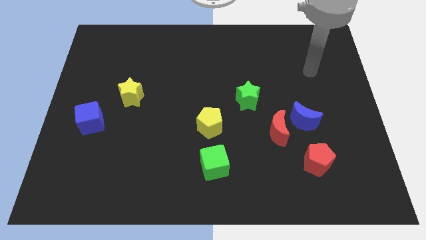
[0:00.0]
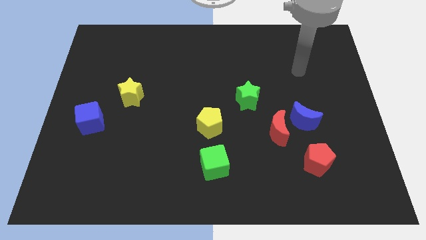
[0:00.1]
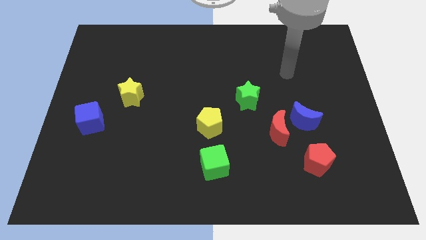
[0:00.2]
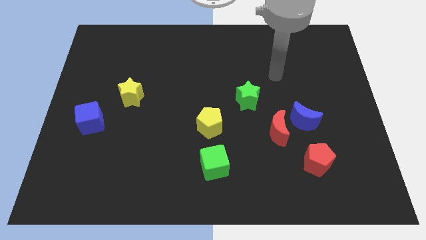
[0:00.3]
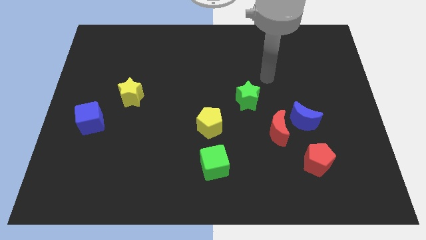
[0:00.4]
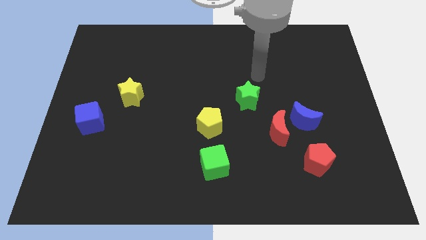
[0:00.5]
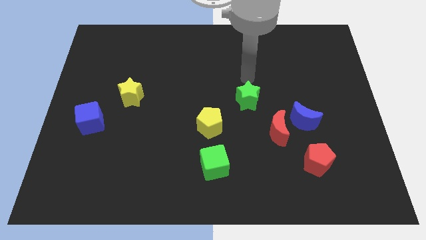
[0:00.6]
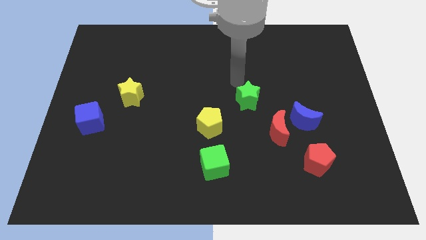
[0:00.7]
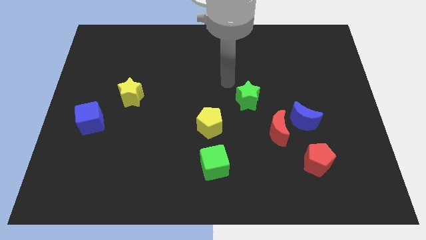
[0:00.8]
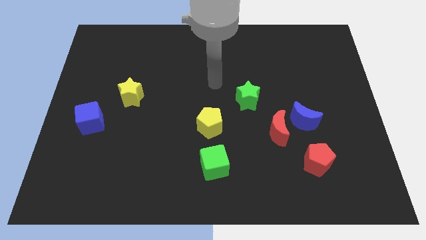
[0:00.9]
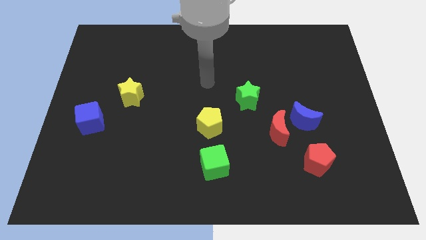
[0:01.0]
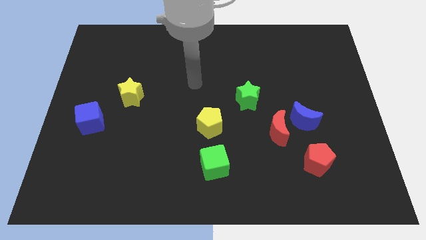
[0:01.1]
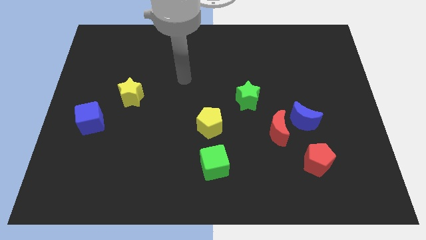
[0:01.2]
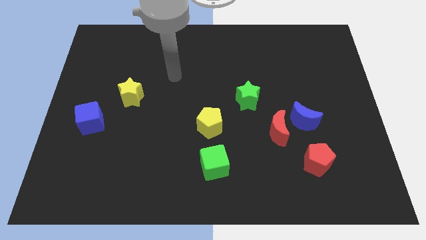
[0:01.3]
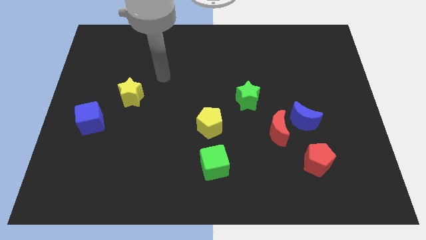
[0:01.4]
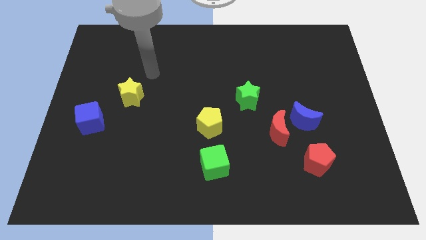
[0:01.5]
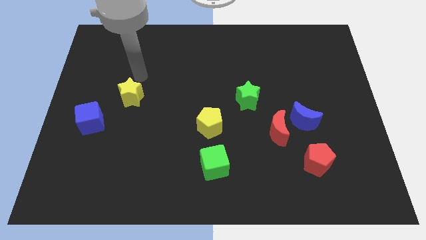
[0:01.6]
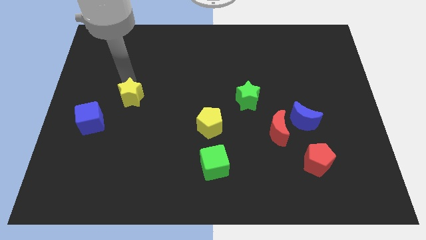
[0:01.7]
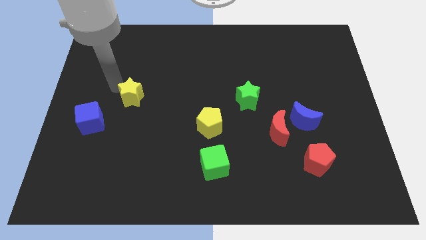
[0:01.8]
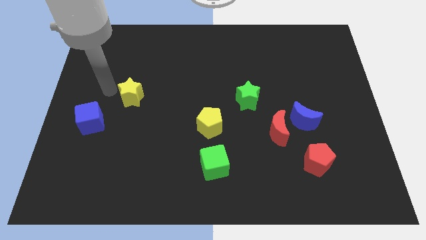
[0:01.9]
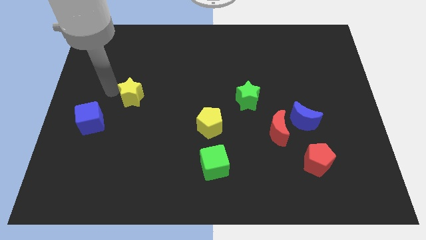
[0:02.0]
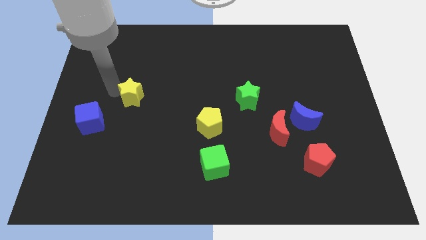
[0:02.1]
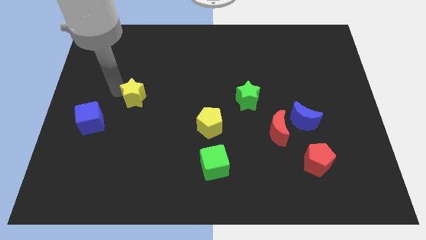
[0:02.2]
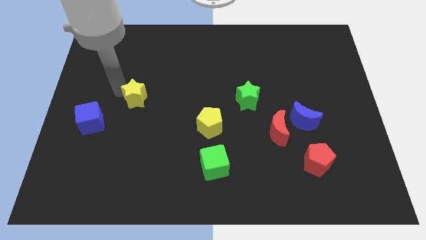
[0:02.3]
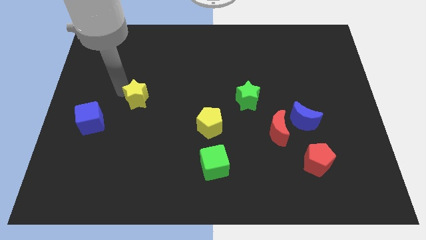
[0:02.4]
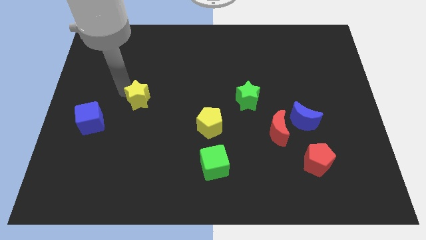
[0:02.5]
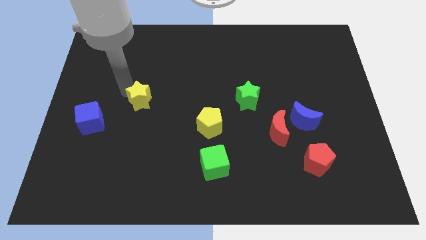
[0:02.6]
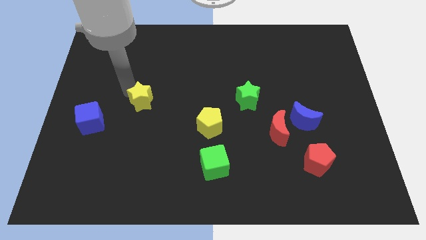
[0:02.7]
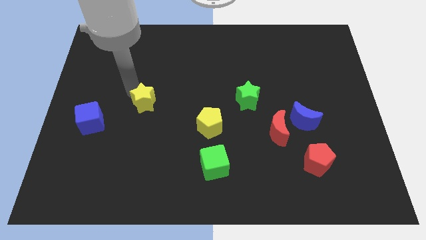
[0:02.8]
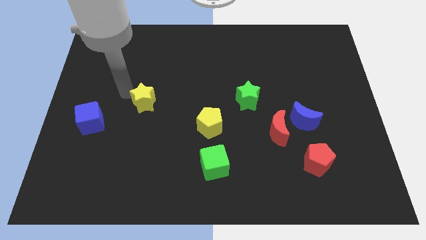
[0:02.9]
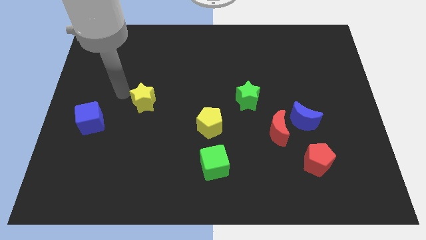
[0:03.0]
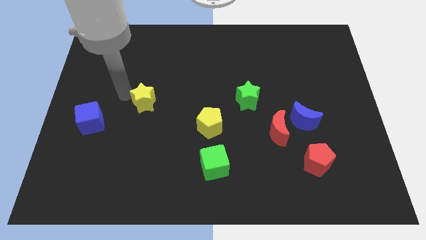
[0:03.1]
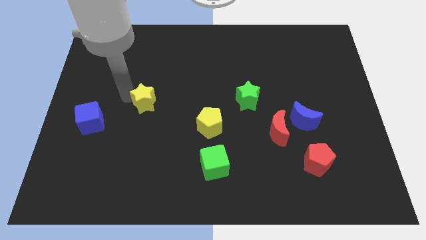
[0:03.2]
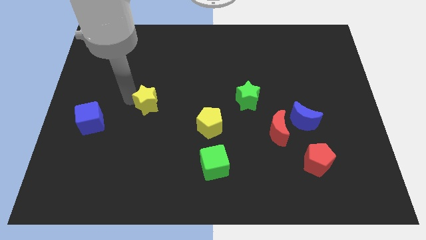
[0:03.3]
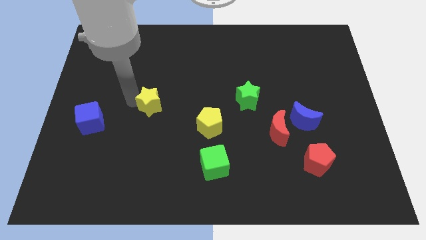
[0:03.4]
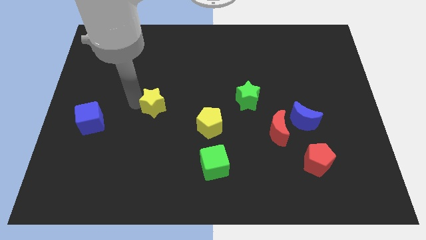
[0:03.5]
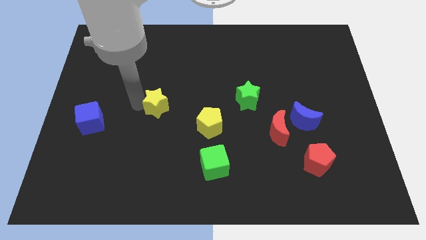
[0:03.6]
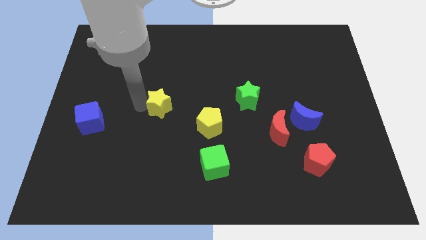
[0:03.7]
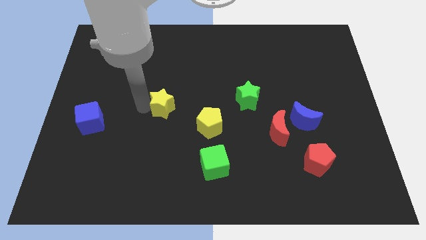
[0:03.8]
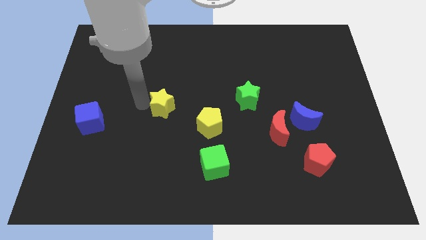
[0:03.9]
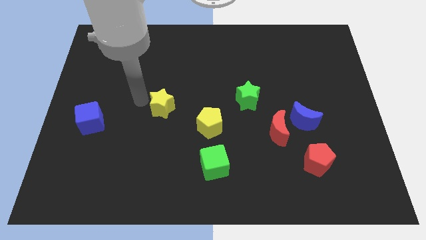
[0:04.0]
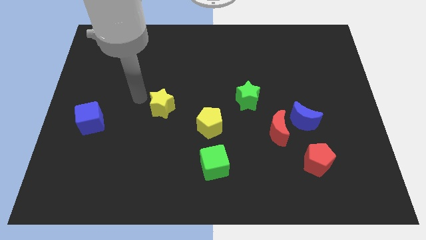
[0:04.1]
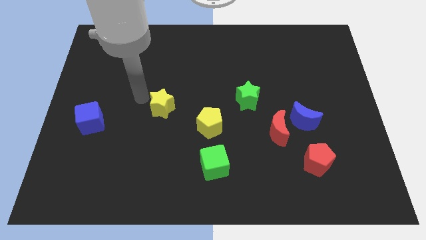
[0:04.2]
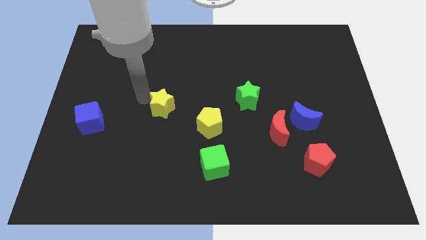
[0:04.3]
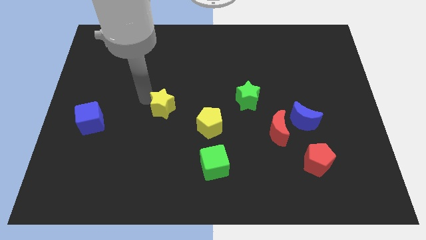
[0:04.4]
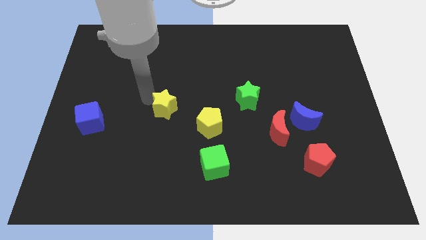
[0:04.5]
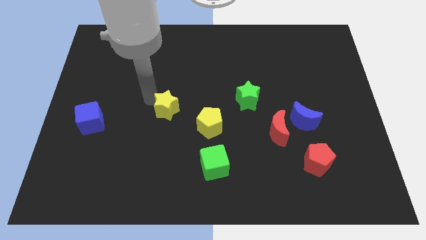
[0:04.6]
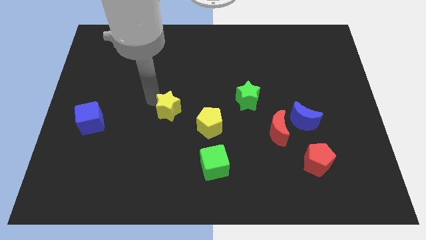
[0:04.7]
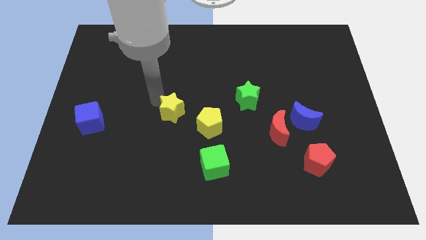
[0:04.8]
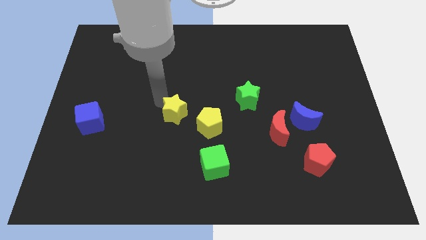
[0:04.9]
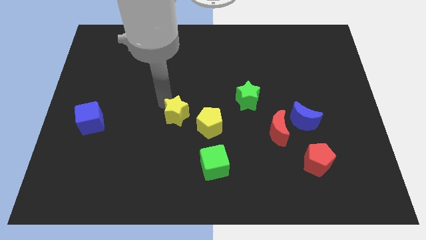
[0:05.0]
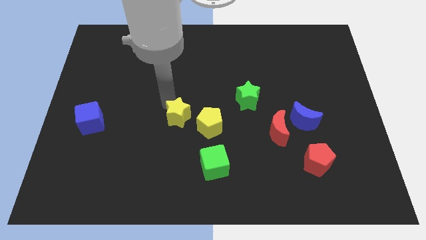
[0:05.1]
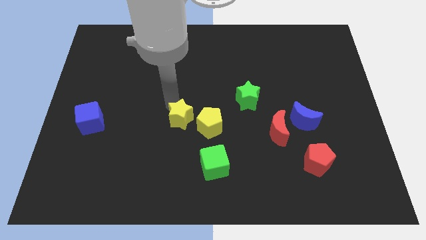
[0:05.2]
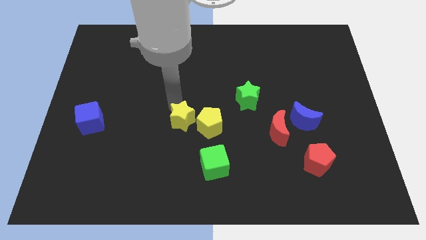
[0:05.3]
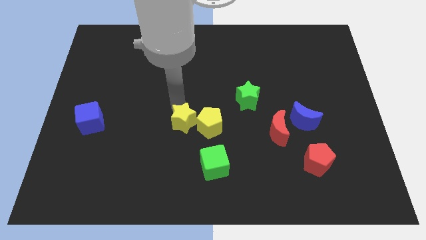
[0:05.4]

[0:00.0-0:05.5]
slide the yellow star close to the yellow pentagon

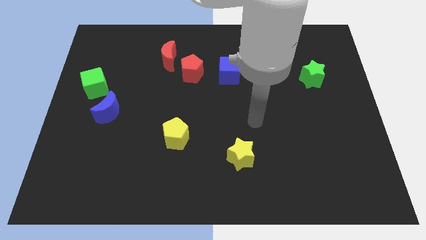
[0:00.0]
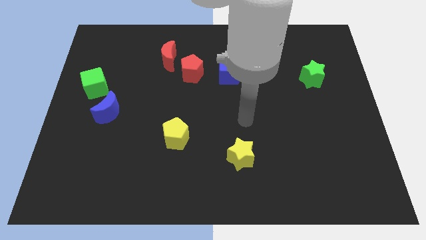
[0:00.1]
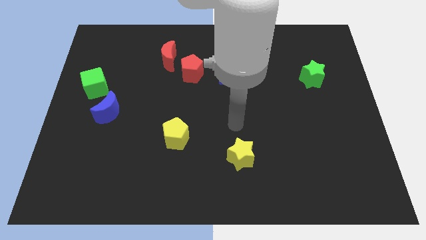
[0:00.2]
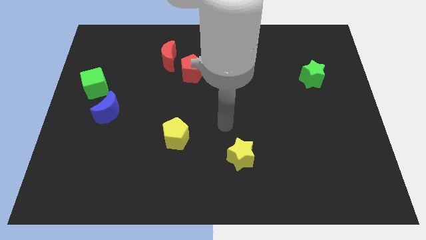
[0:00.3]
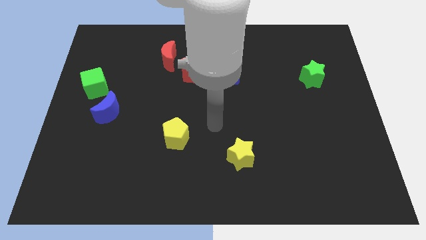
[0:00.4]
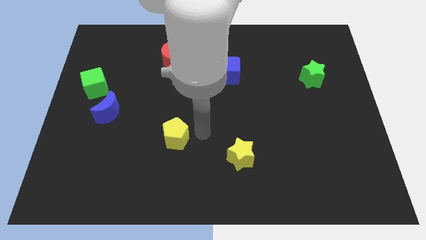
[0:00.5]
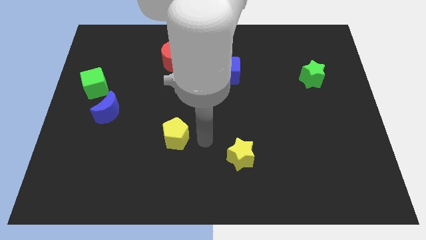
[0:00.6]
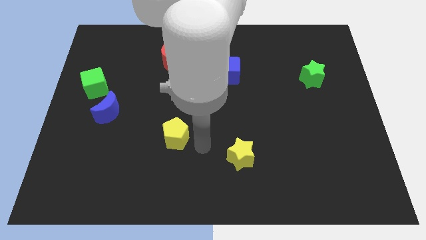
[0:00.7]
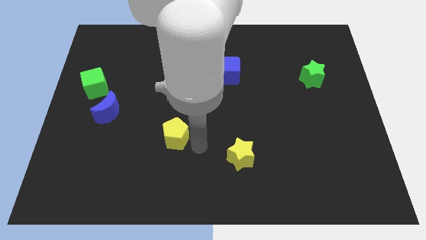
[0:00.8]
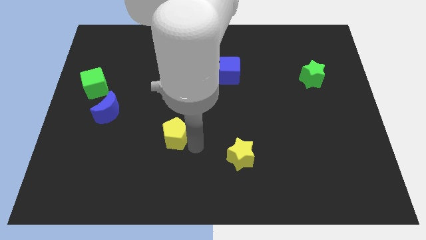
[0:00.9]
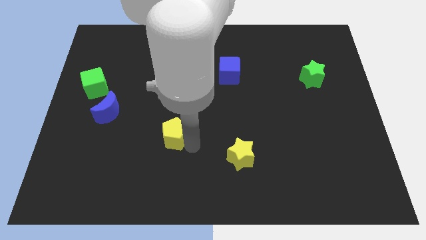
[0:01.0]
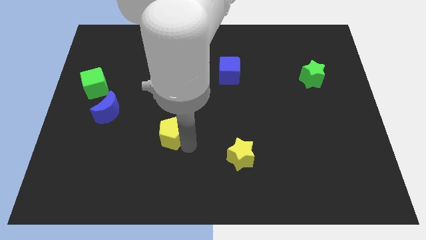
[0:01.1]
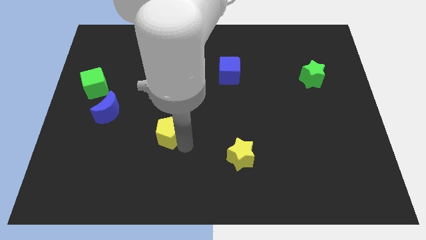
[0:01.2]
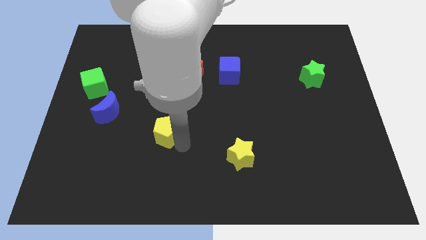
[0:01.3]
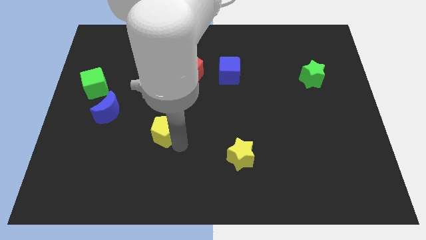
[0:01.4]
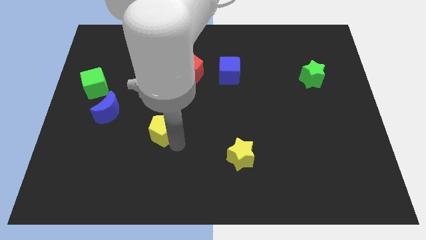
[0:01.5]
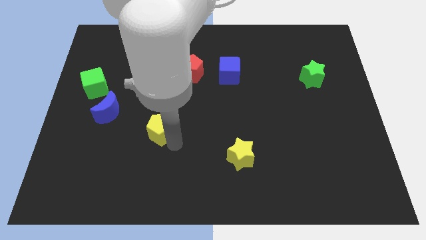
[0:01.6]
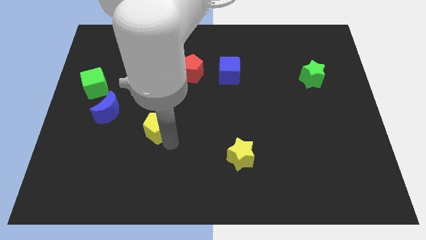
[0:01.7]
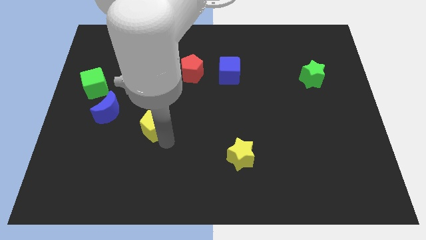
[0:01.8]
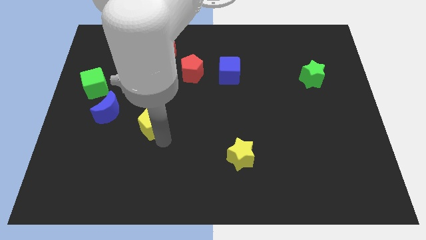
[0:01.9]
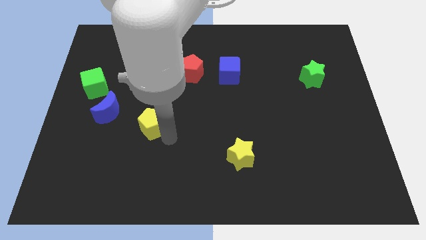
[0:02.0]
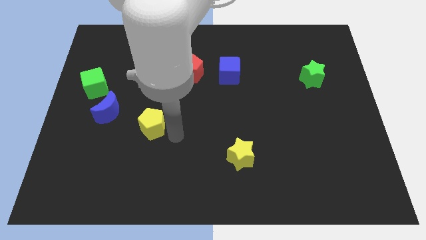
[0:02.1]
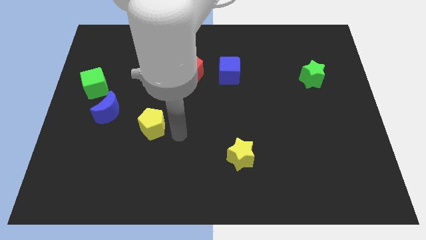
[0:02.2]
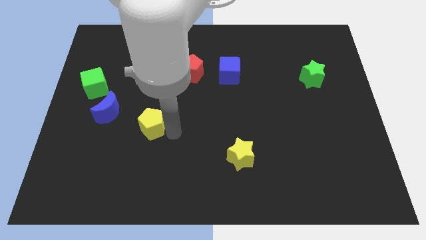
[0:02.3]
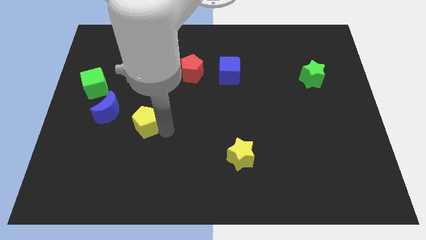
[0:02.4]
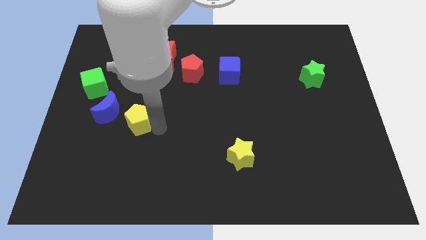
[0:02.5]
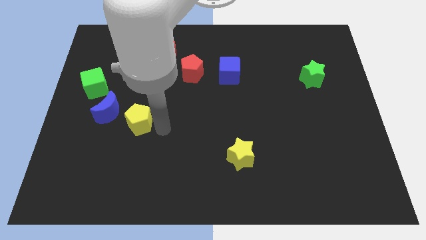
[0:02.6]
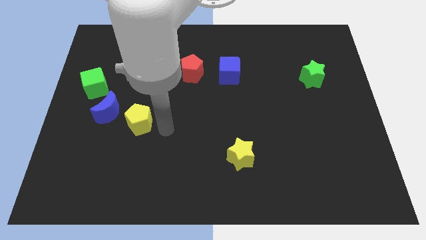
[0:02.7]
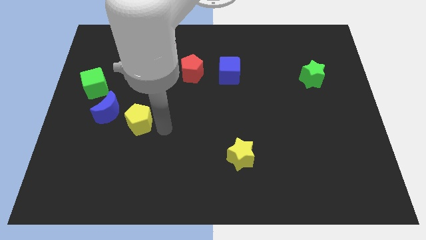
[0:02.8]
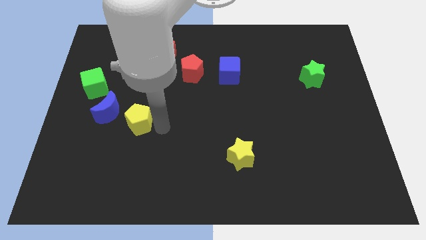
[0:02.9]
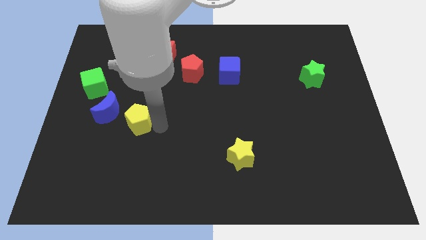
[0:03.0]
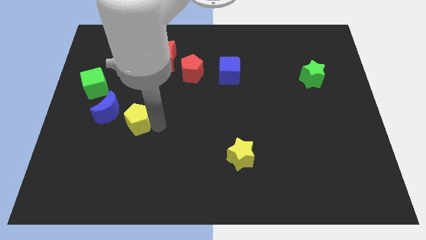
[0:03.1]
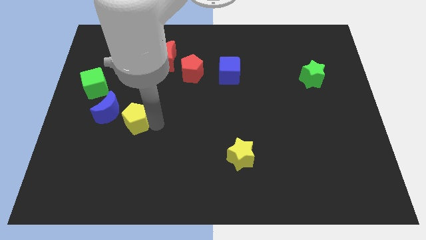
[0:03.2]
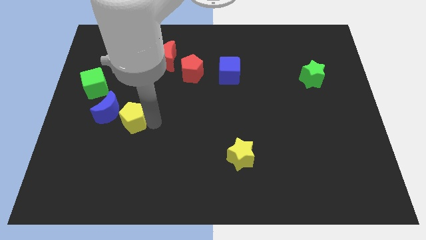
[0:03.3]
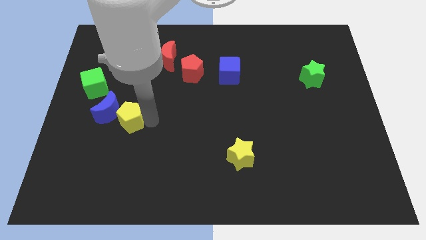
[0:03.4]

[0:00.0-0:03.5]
push the yellow pentagon next to the blue moon
